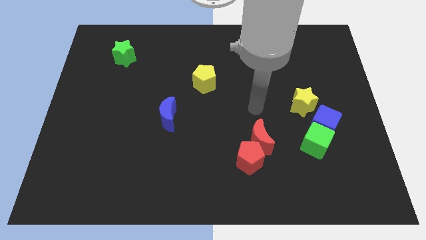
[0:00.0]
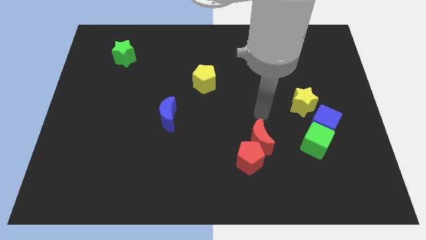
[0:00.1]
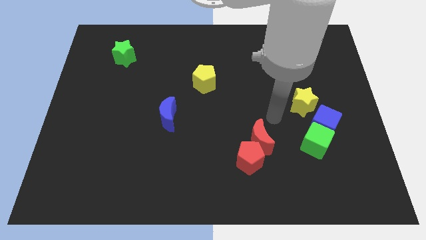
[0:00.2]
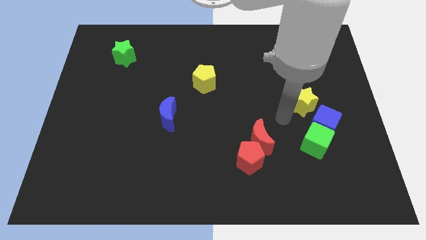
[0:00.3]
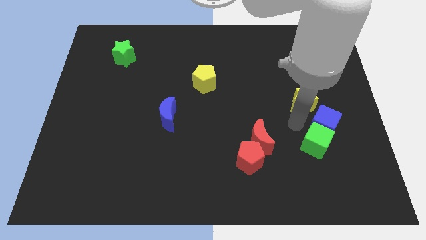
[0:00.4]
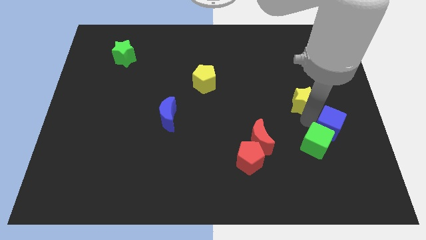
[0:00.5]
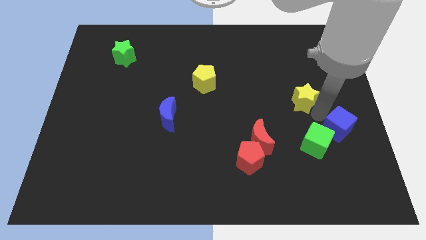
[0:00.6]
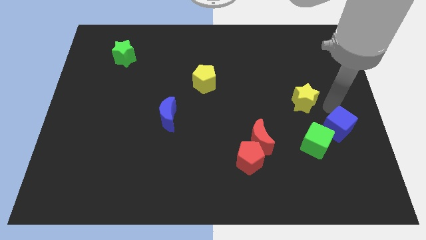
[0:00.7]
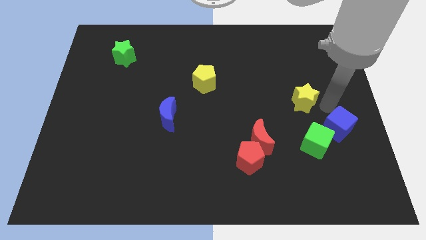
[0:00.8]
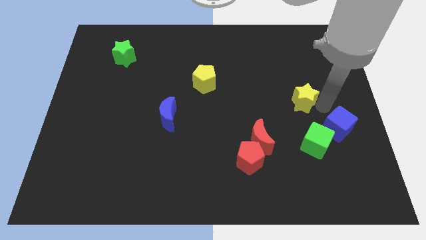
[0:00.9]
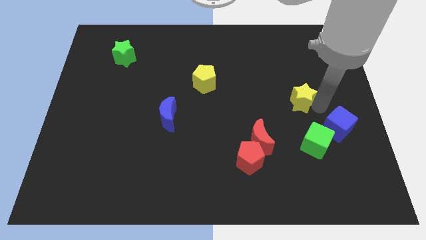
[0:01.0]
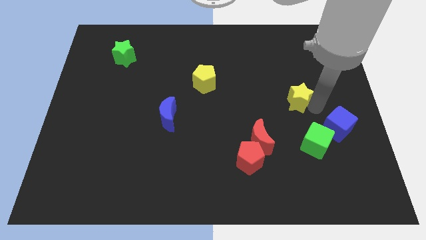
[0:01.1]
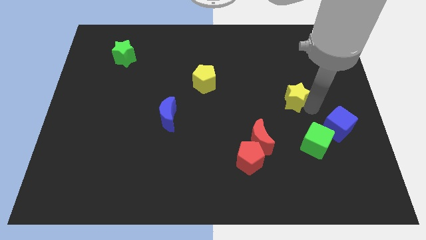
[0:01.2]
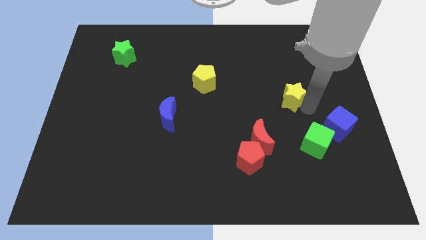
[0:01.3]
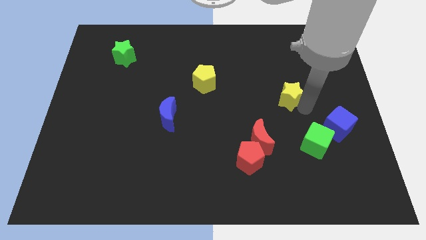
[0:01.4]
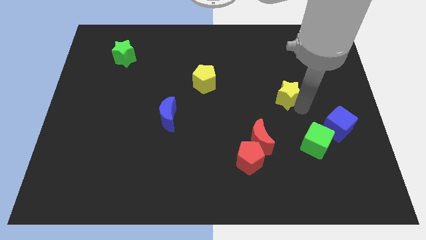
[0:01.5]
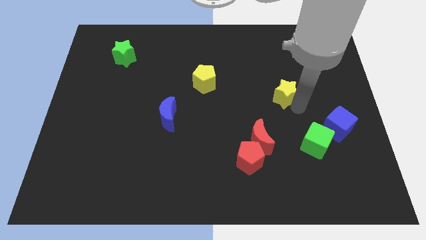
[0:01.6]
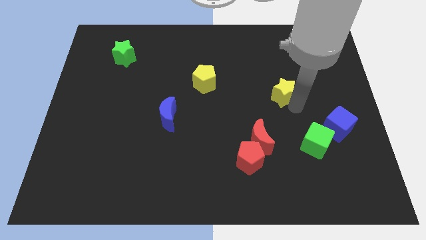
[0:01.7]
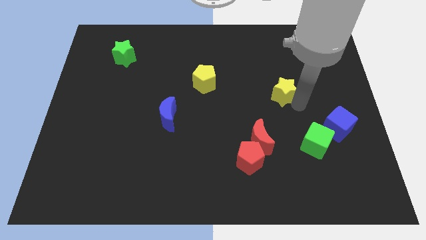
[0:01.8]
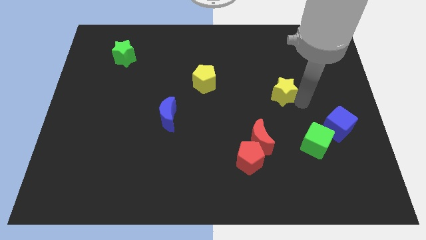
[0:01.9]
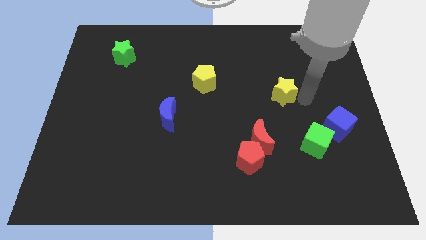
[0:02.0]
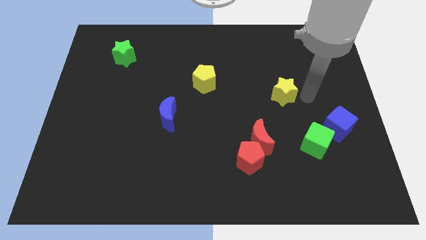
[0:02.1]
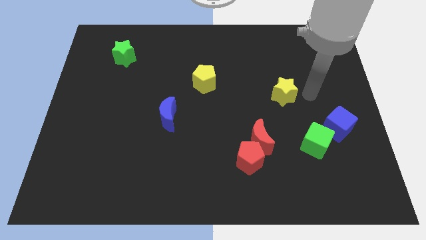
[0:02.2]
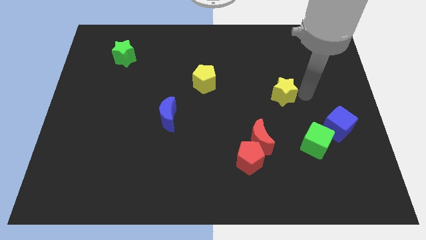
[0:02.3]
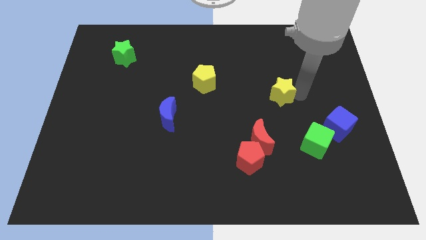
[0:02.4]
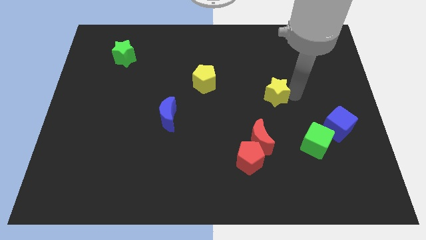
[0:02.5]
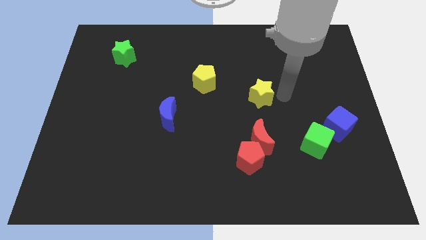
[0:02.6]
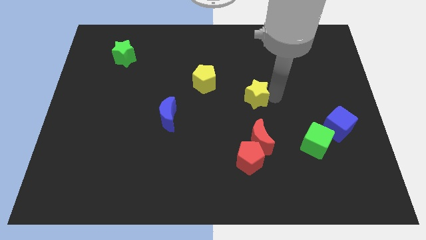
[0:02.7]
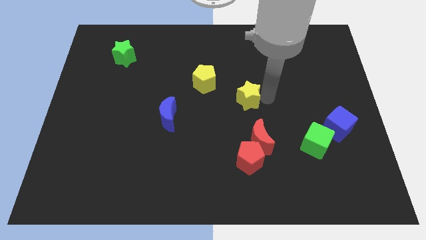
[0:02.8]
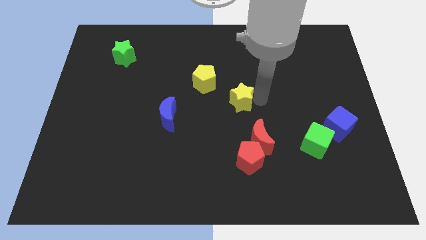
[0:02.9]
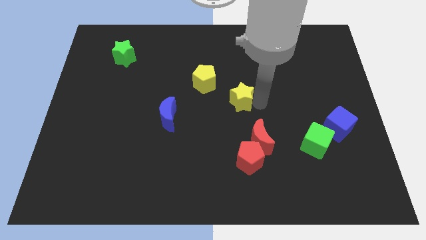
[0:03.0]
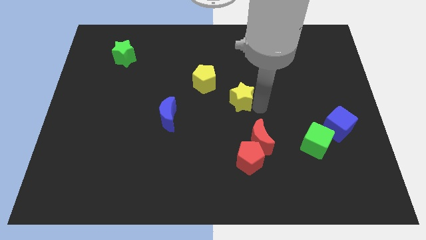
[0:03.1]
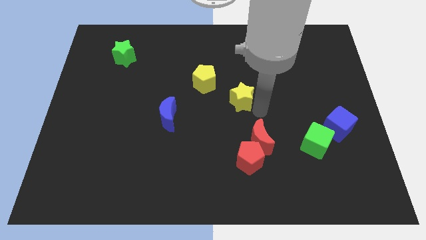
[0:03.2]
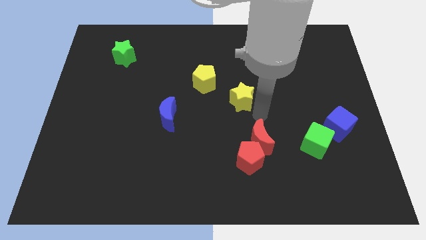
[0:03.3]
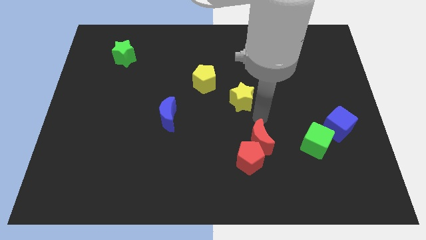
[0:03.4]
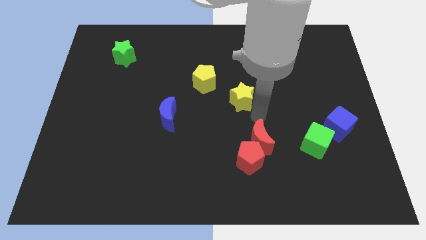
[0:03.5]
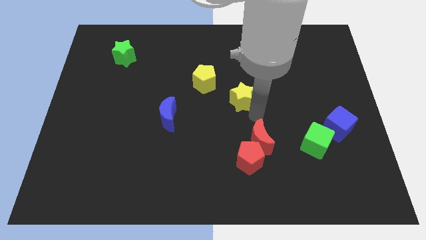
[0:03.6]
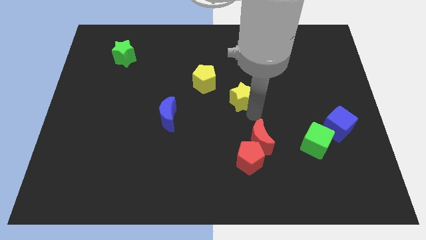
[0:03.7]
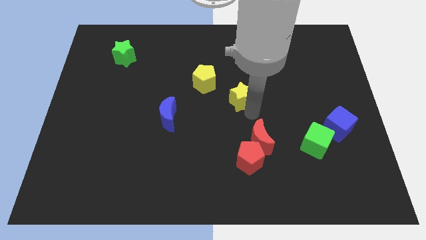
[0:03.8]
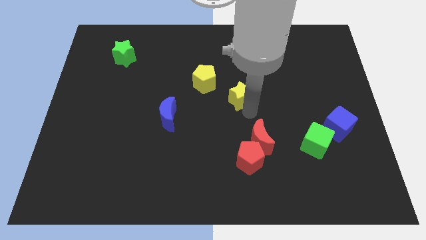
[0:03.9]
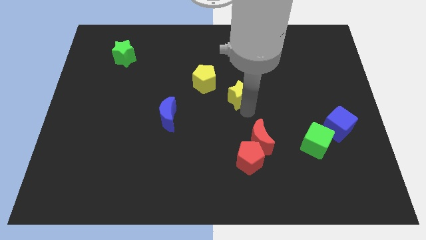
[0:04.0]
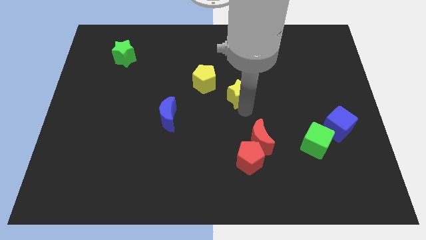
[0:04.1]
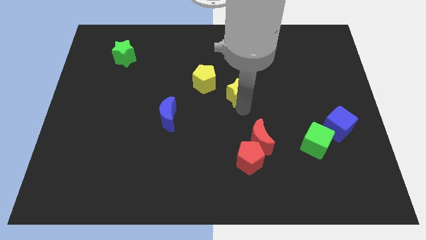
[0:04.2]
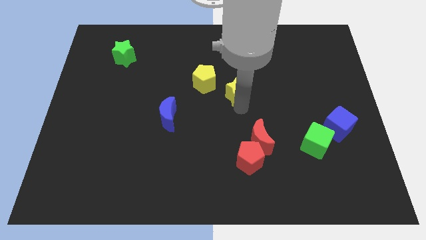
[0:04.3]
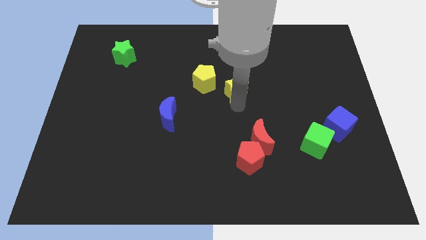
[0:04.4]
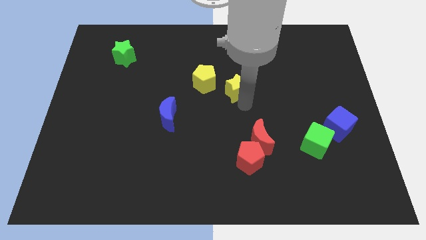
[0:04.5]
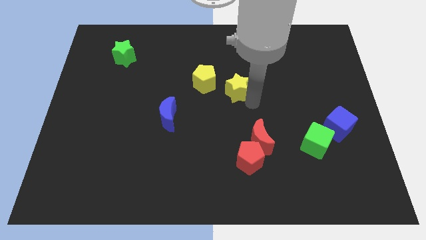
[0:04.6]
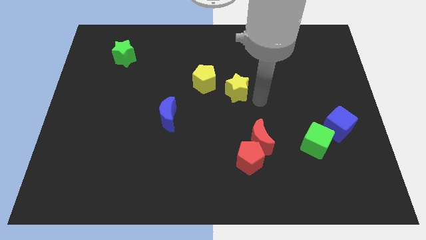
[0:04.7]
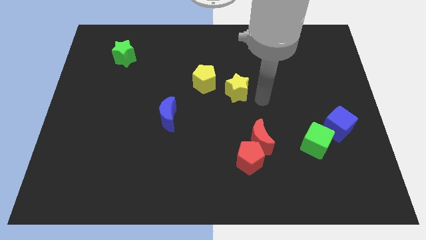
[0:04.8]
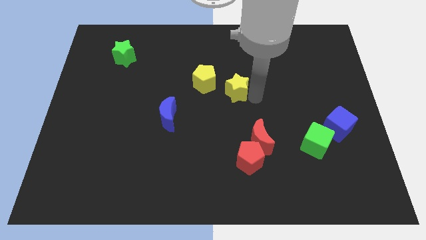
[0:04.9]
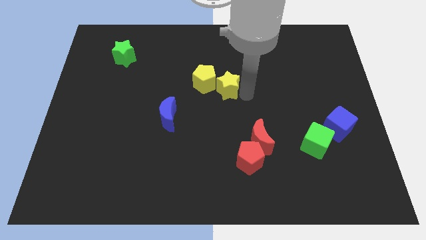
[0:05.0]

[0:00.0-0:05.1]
put the yellow star towards the yellow pentagon

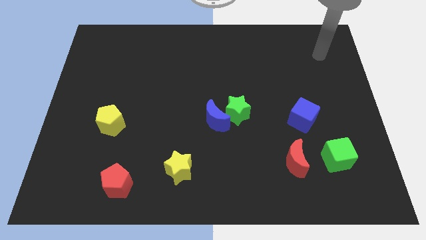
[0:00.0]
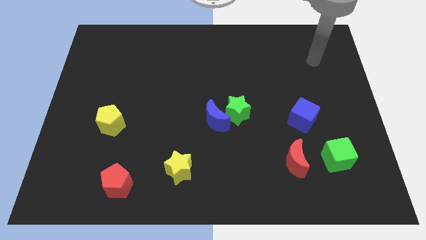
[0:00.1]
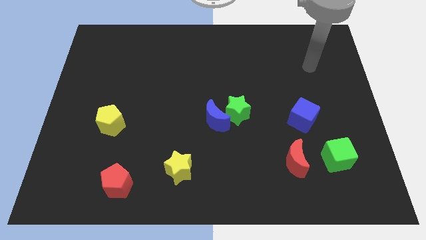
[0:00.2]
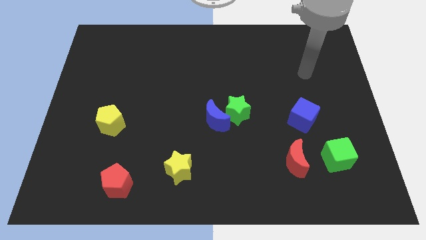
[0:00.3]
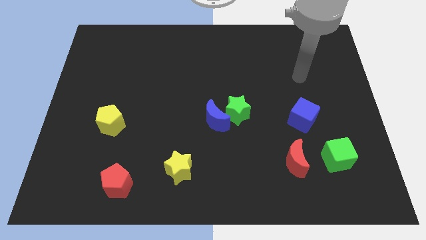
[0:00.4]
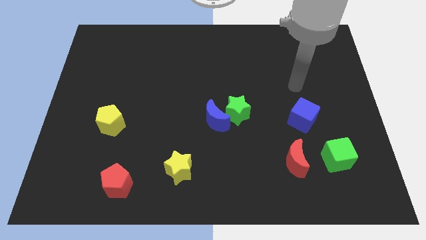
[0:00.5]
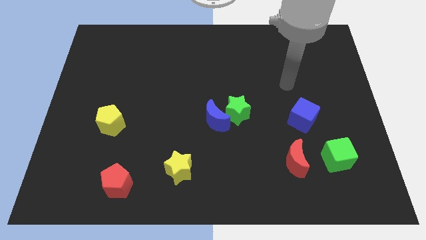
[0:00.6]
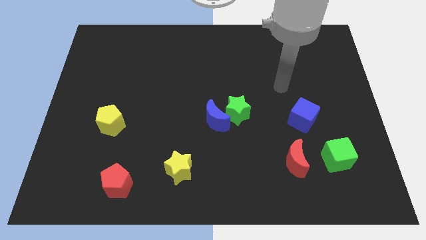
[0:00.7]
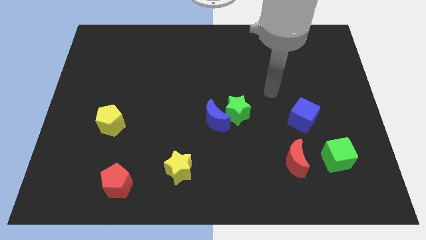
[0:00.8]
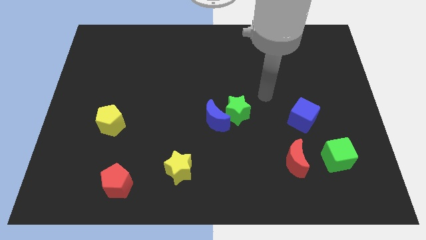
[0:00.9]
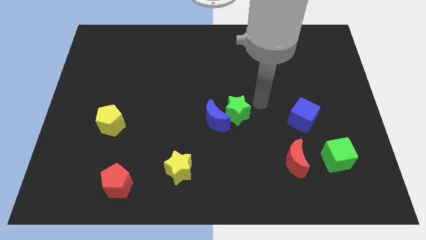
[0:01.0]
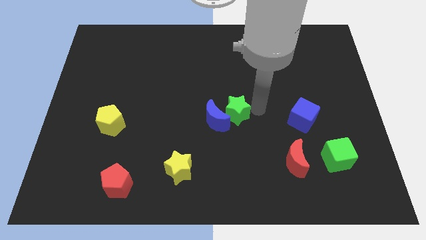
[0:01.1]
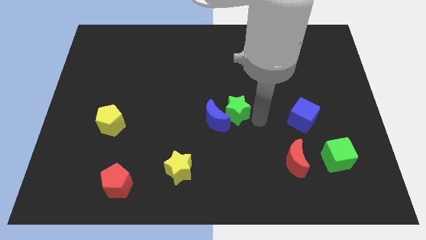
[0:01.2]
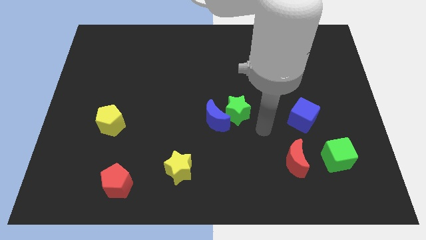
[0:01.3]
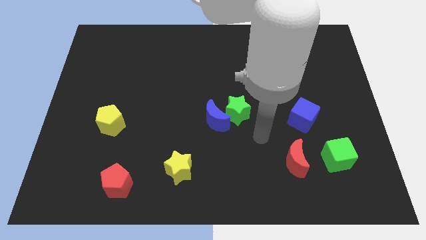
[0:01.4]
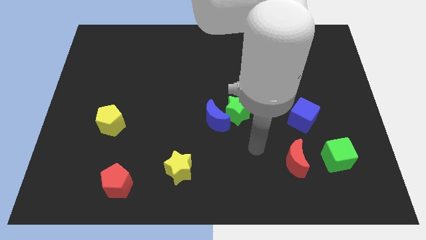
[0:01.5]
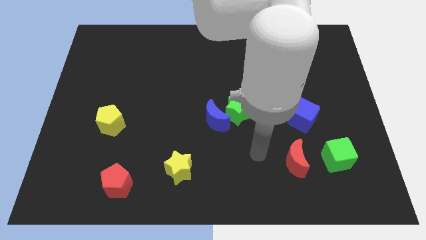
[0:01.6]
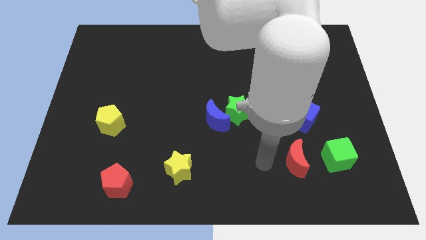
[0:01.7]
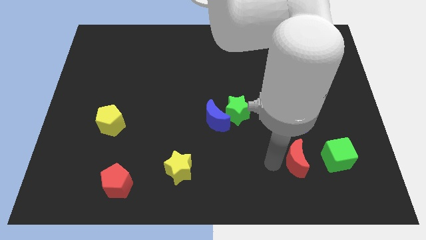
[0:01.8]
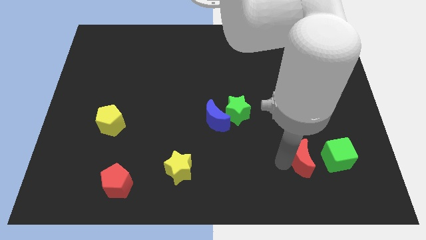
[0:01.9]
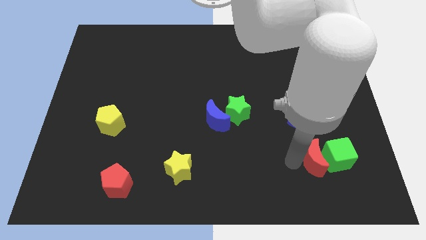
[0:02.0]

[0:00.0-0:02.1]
move the red moon close to the green cube
